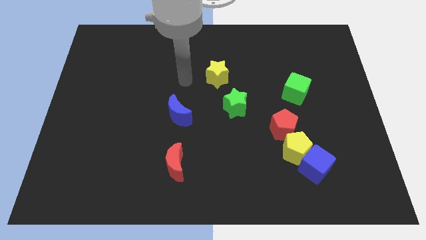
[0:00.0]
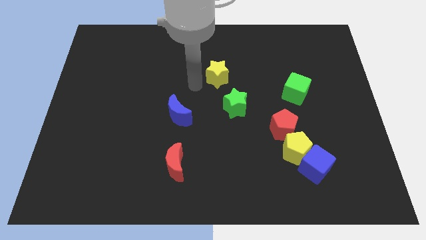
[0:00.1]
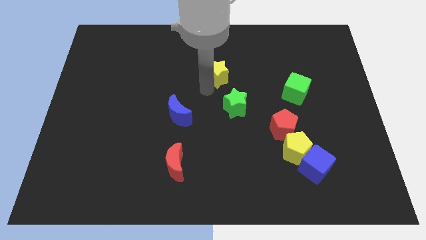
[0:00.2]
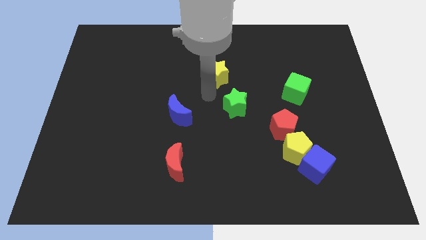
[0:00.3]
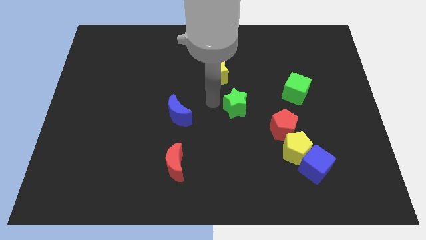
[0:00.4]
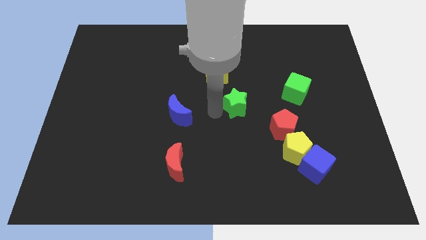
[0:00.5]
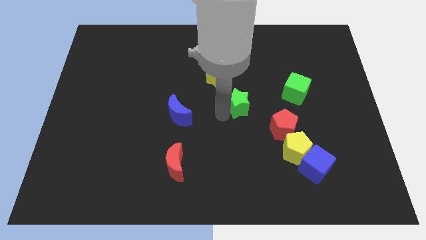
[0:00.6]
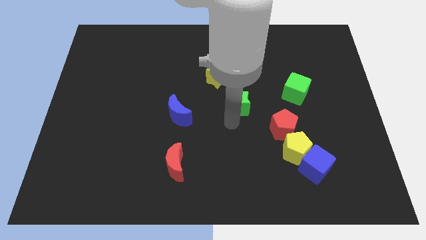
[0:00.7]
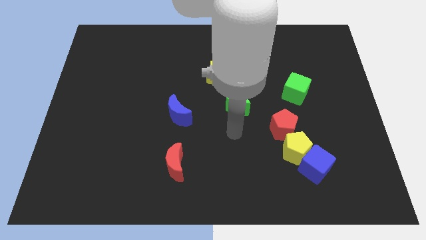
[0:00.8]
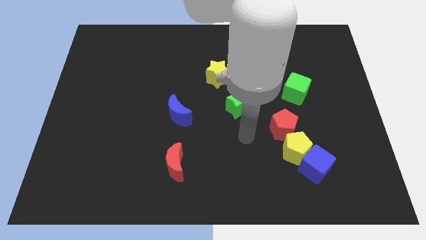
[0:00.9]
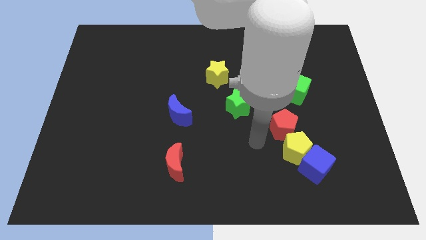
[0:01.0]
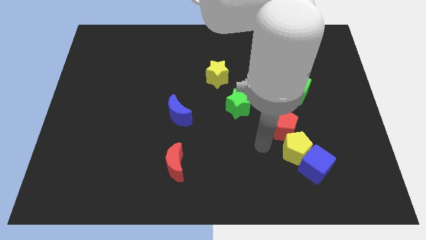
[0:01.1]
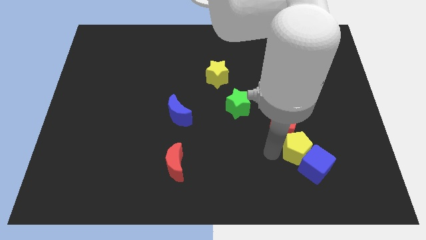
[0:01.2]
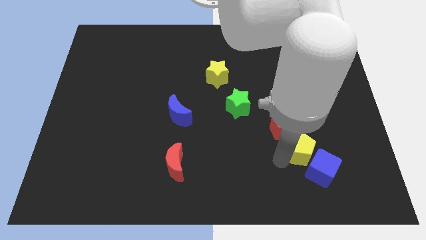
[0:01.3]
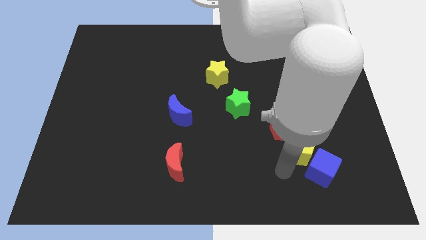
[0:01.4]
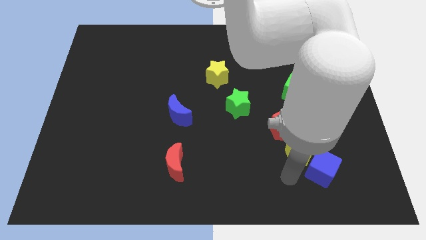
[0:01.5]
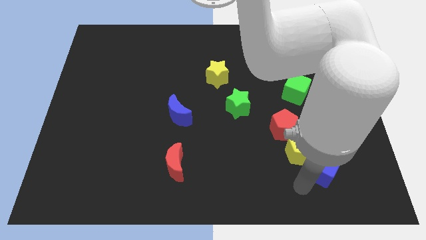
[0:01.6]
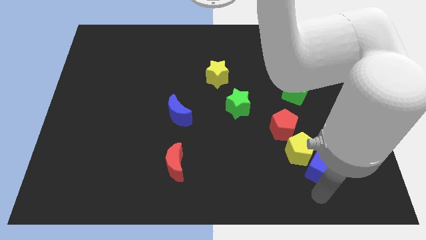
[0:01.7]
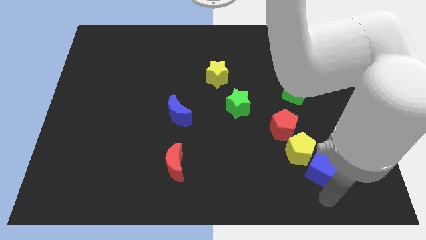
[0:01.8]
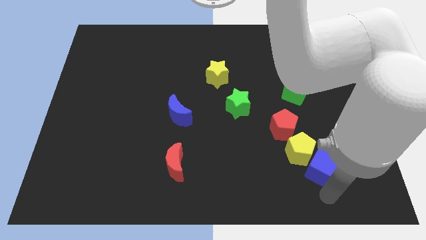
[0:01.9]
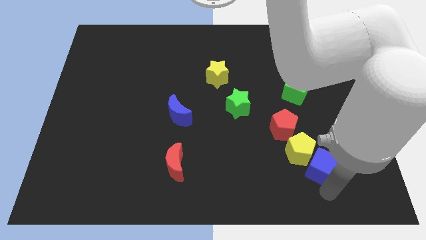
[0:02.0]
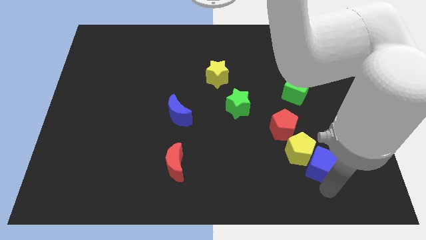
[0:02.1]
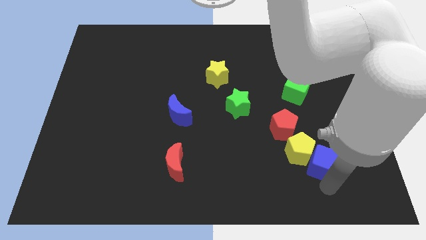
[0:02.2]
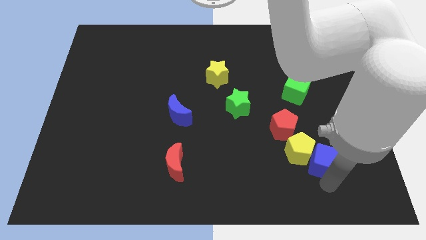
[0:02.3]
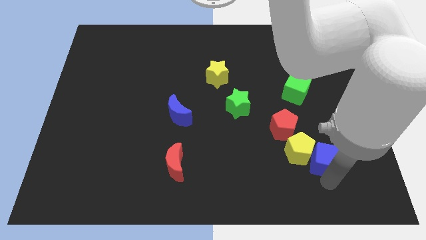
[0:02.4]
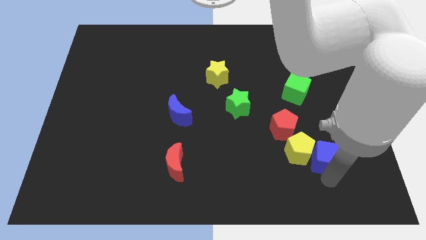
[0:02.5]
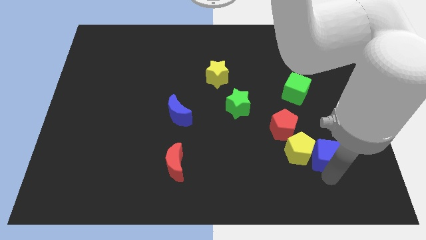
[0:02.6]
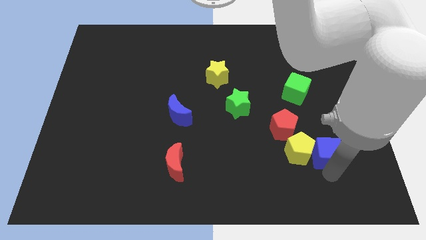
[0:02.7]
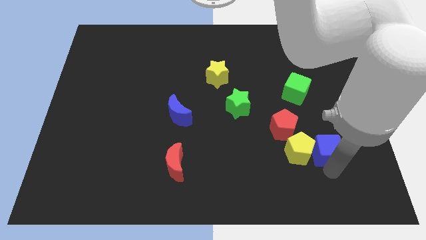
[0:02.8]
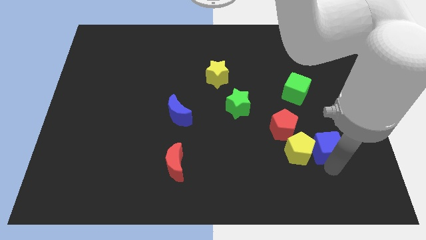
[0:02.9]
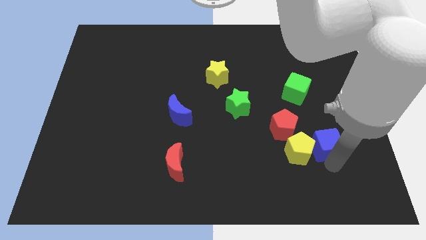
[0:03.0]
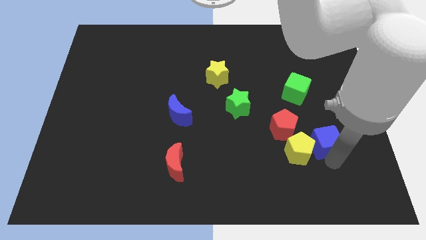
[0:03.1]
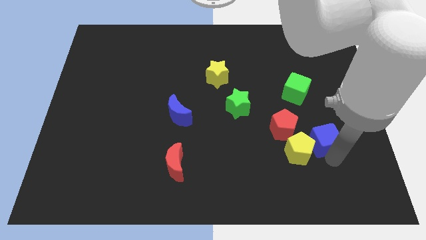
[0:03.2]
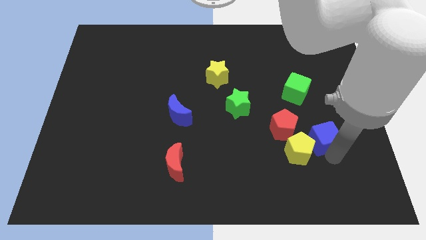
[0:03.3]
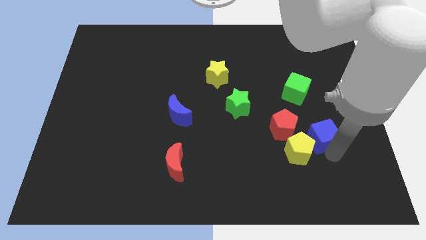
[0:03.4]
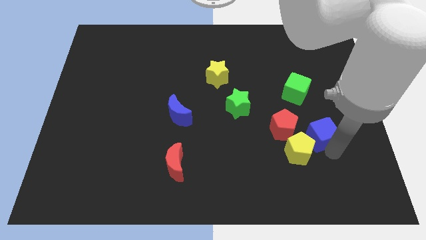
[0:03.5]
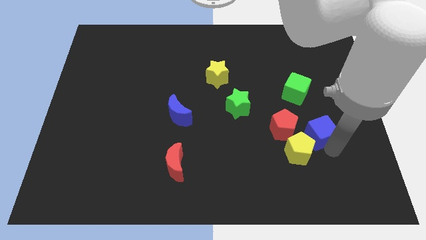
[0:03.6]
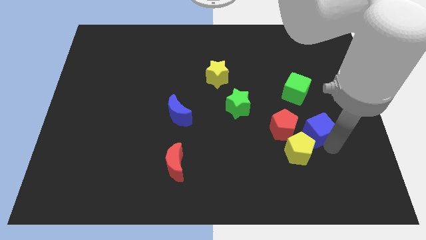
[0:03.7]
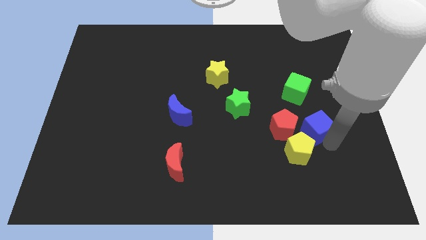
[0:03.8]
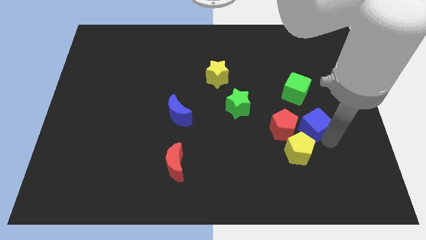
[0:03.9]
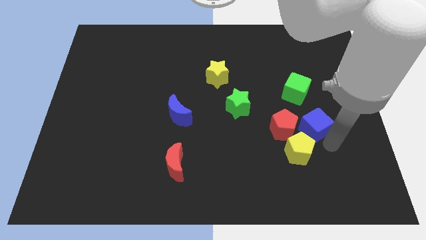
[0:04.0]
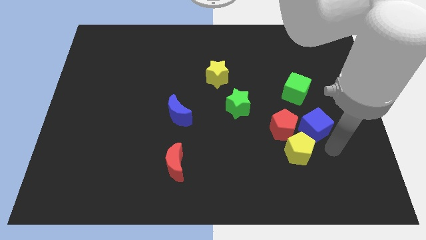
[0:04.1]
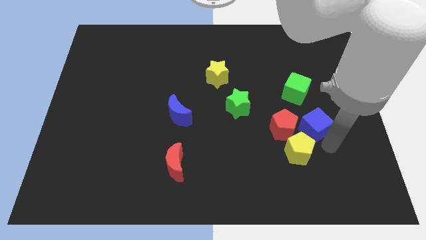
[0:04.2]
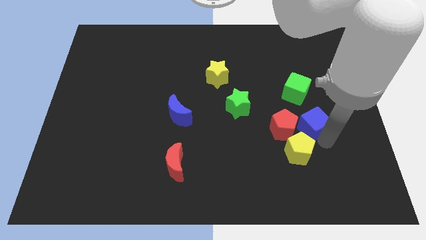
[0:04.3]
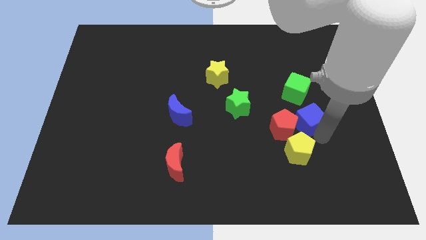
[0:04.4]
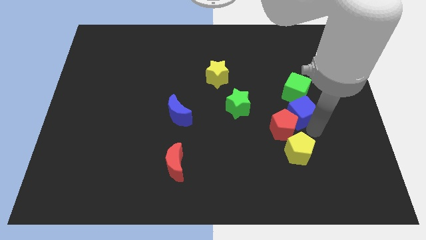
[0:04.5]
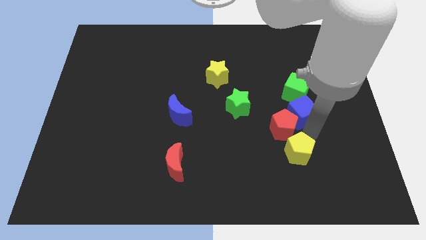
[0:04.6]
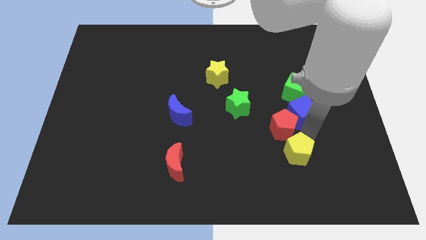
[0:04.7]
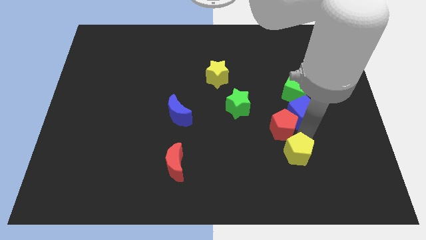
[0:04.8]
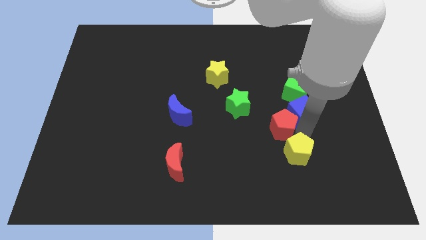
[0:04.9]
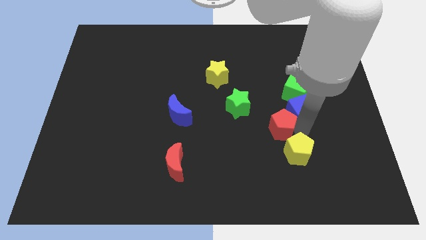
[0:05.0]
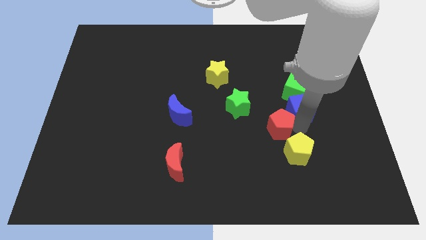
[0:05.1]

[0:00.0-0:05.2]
slide the blue cube to the green cube

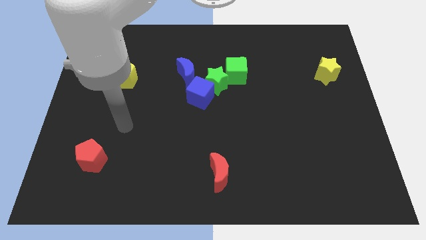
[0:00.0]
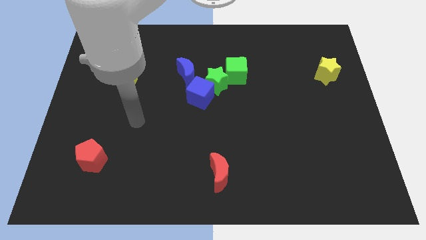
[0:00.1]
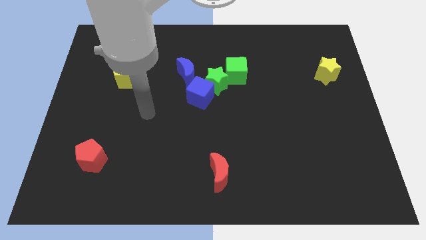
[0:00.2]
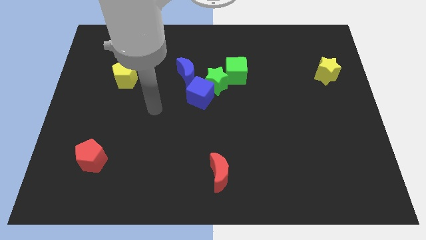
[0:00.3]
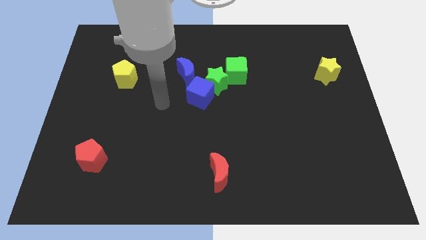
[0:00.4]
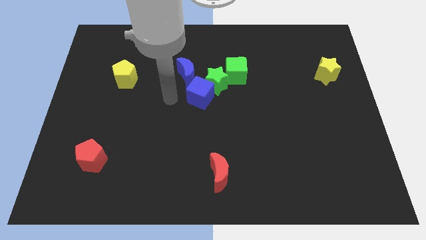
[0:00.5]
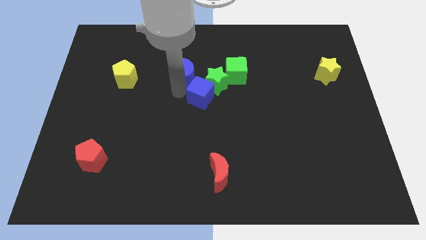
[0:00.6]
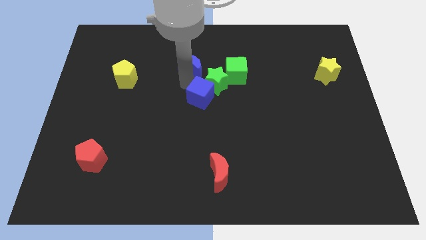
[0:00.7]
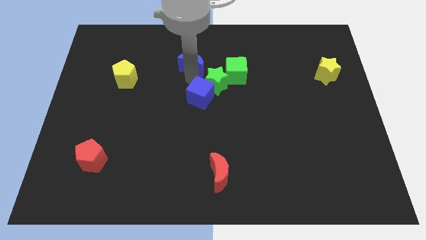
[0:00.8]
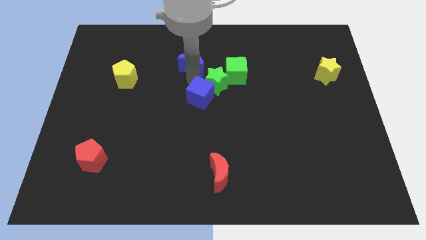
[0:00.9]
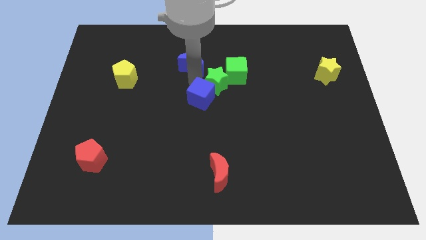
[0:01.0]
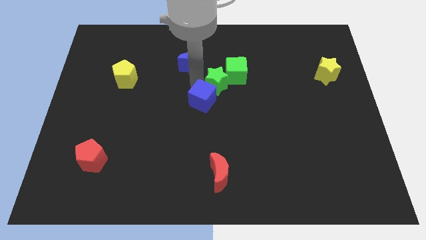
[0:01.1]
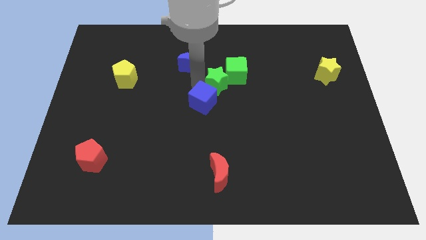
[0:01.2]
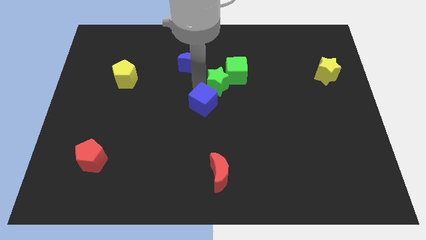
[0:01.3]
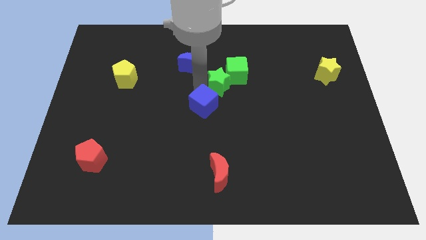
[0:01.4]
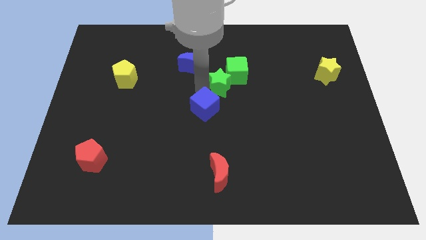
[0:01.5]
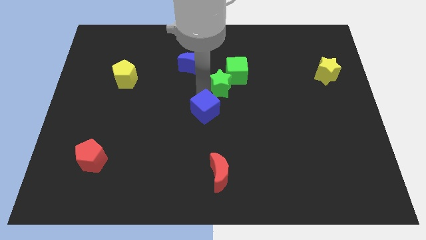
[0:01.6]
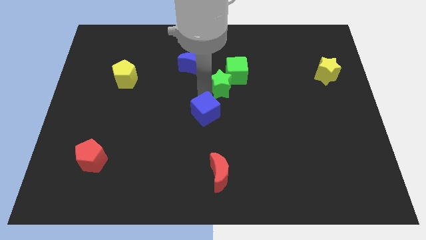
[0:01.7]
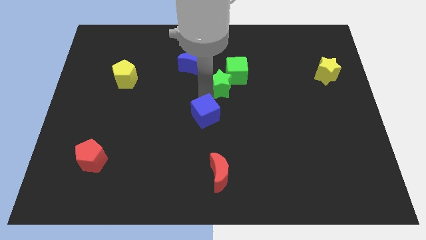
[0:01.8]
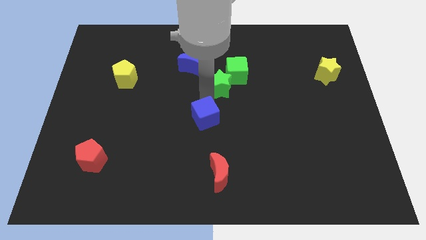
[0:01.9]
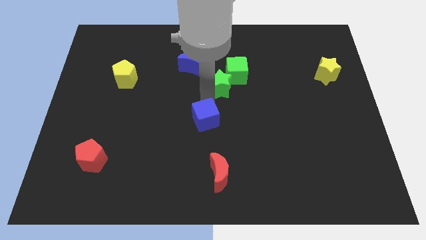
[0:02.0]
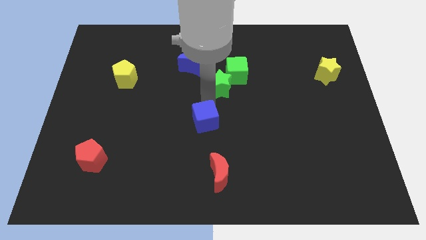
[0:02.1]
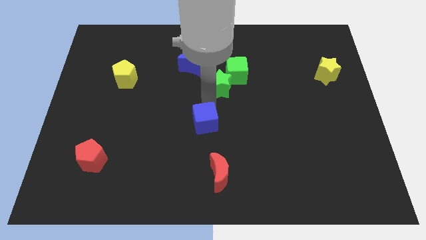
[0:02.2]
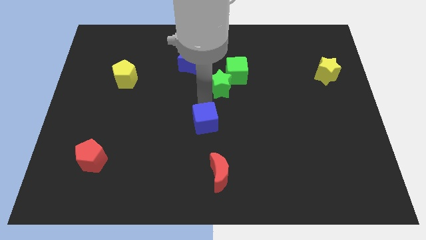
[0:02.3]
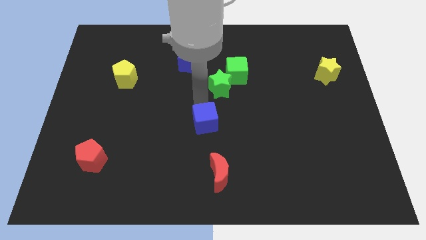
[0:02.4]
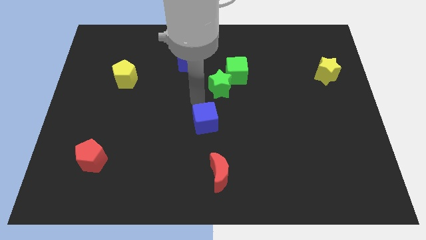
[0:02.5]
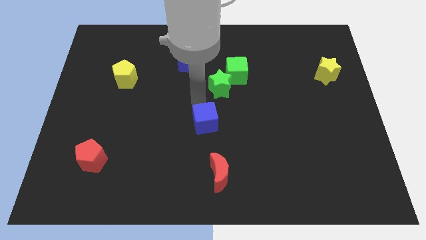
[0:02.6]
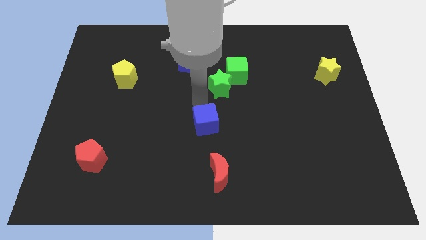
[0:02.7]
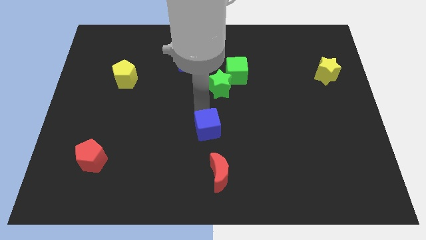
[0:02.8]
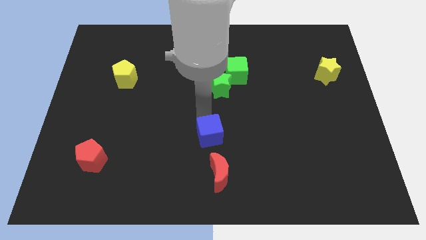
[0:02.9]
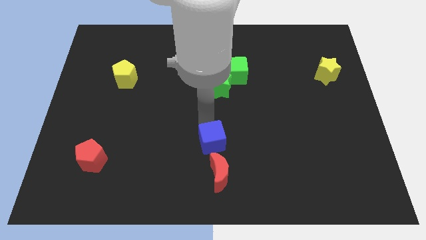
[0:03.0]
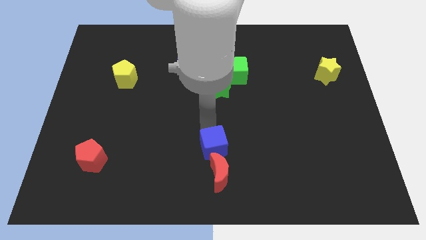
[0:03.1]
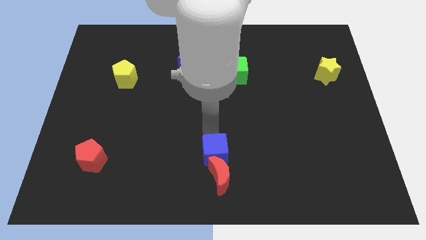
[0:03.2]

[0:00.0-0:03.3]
push the blue cube towards the red moon
